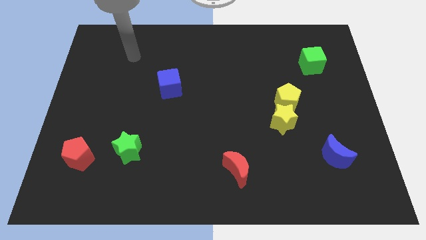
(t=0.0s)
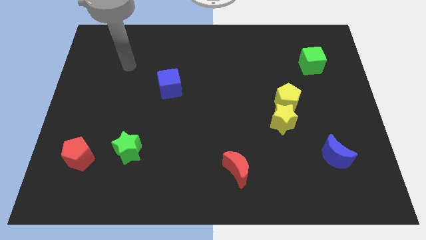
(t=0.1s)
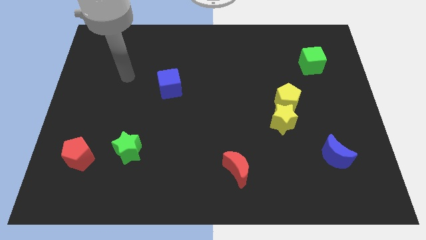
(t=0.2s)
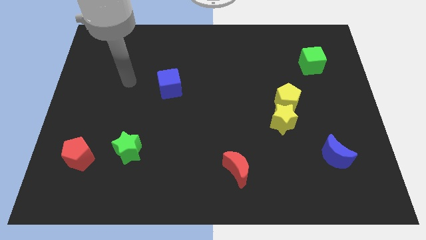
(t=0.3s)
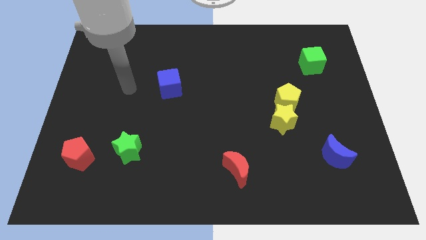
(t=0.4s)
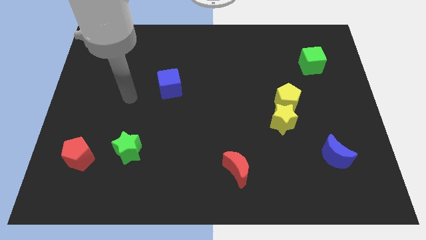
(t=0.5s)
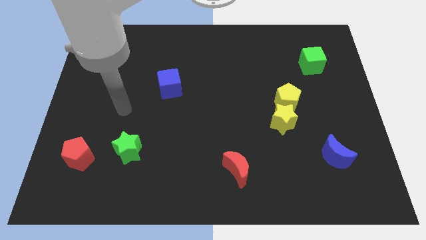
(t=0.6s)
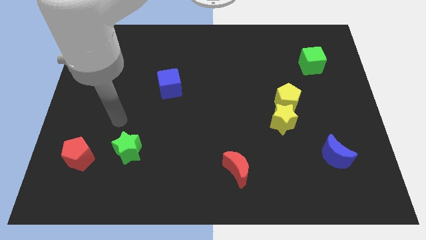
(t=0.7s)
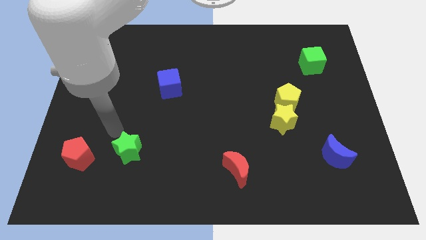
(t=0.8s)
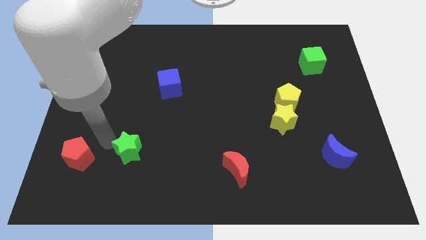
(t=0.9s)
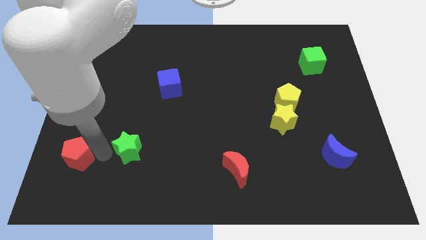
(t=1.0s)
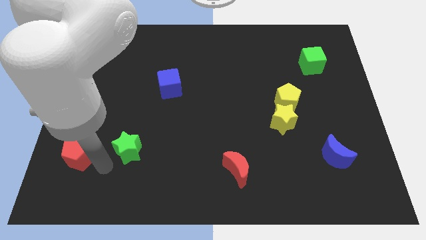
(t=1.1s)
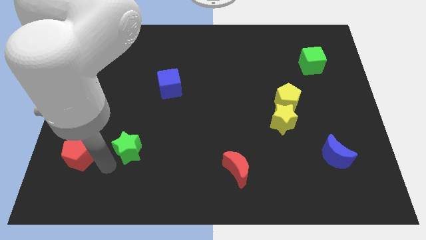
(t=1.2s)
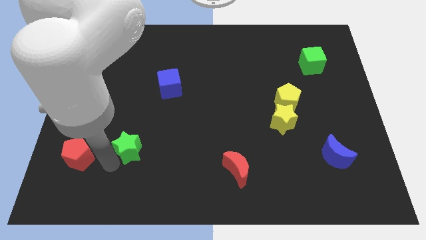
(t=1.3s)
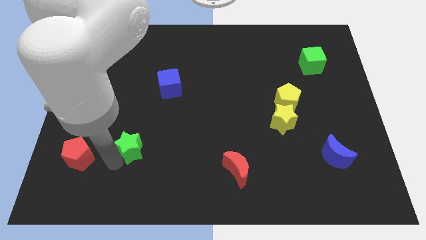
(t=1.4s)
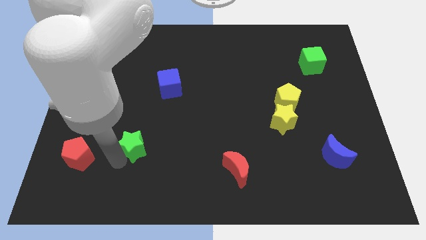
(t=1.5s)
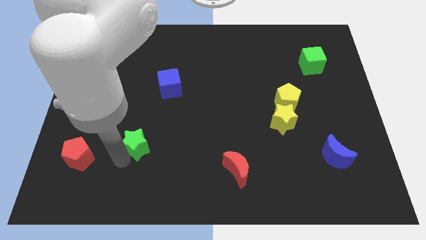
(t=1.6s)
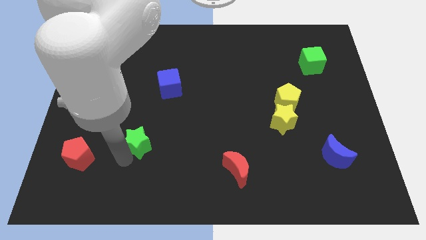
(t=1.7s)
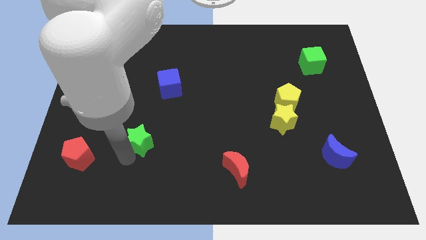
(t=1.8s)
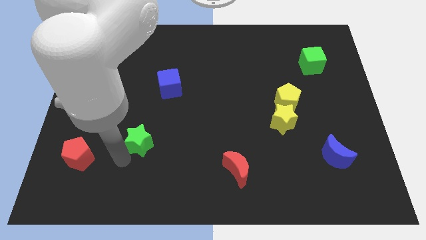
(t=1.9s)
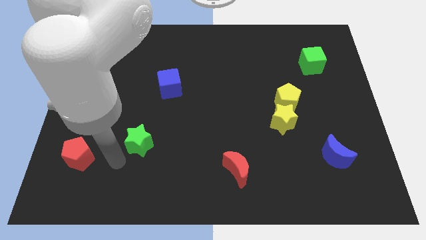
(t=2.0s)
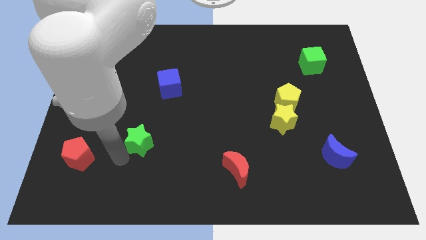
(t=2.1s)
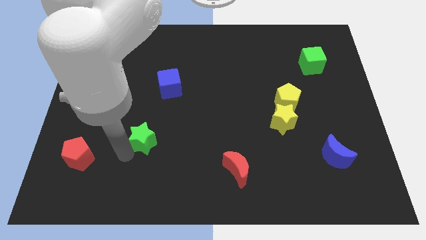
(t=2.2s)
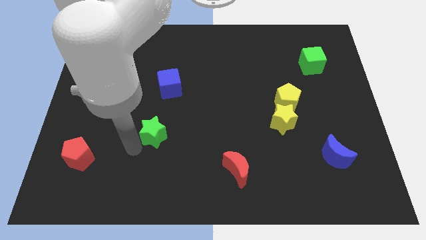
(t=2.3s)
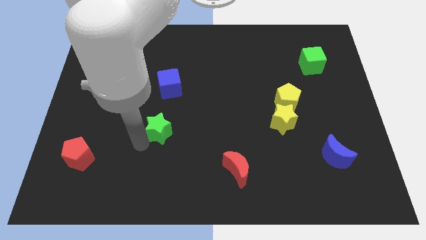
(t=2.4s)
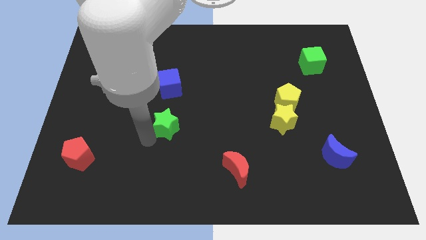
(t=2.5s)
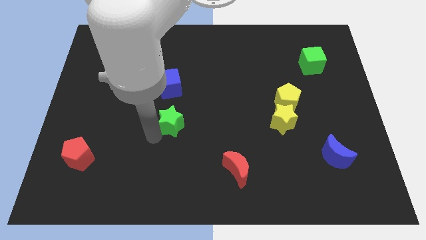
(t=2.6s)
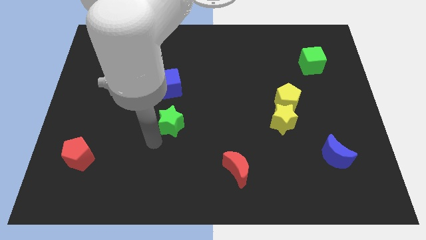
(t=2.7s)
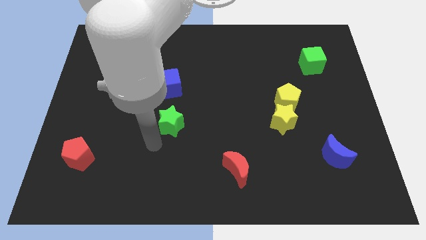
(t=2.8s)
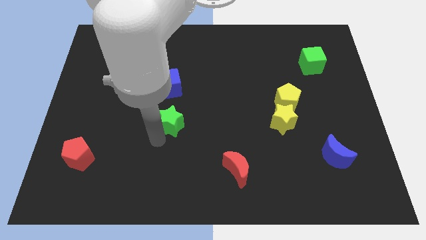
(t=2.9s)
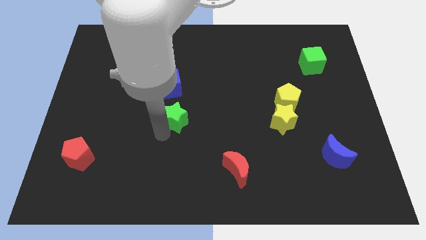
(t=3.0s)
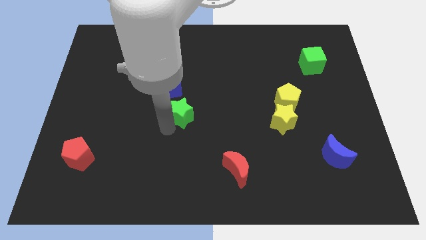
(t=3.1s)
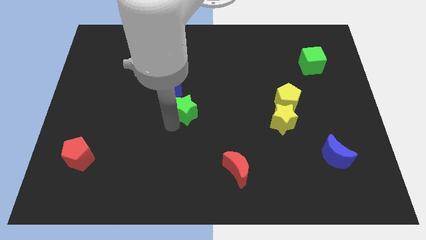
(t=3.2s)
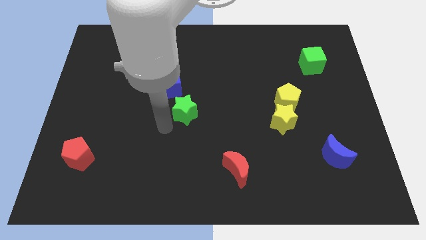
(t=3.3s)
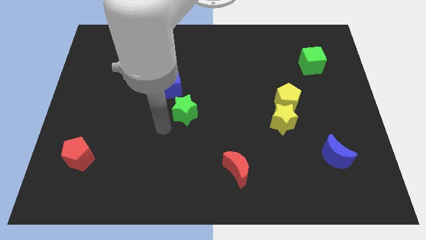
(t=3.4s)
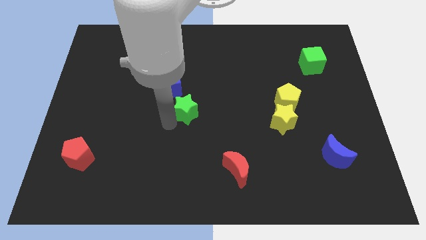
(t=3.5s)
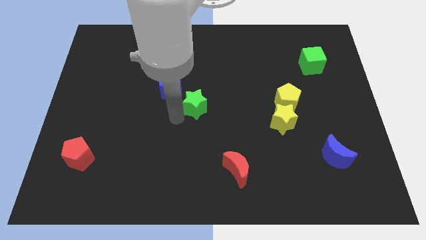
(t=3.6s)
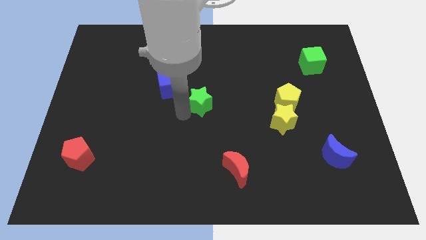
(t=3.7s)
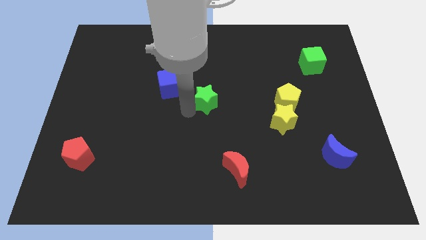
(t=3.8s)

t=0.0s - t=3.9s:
slide the green star diagonally upwards and to the right

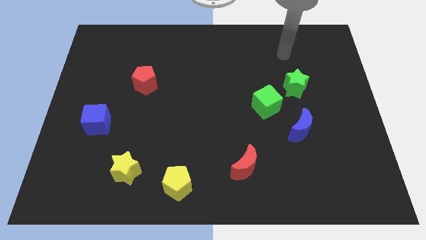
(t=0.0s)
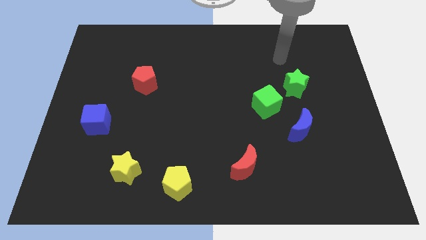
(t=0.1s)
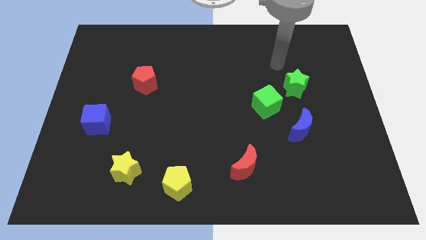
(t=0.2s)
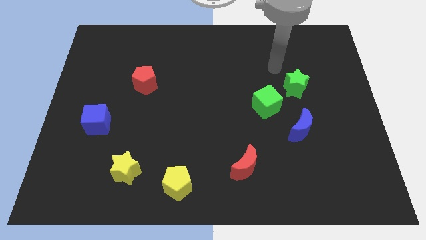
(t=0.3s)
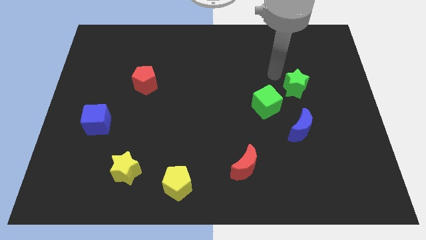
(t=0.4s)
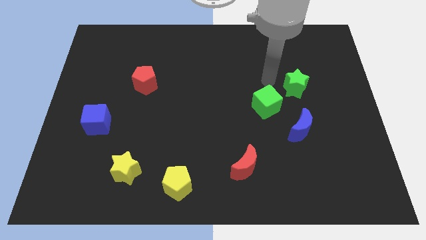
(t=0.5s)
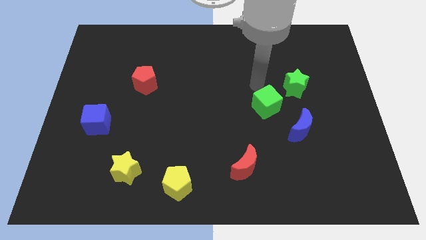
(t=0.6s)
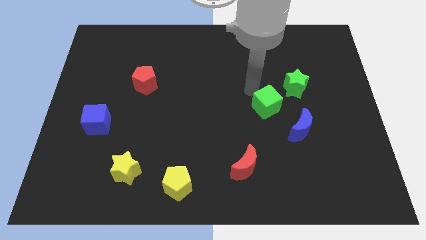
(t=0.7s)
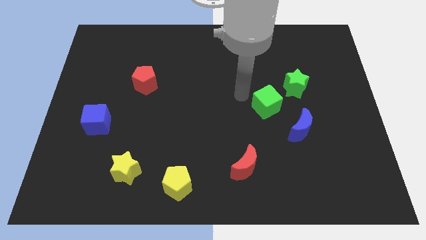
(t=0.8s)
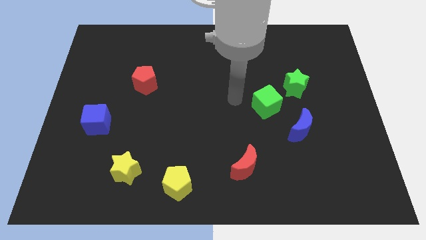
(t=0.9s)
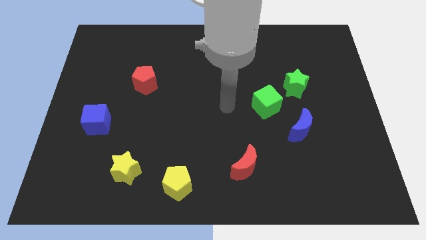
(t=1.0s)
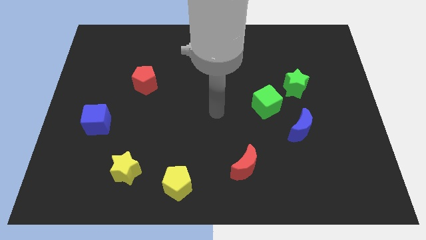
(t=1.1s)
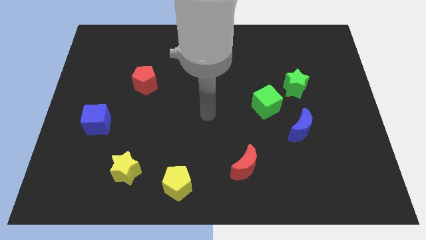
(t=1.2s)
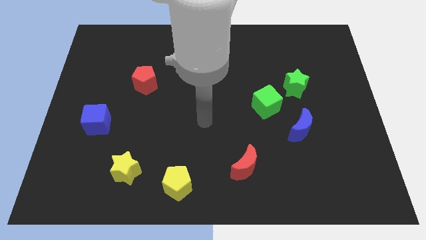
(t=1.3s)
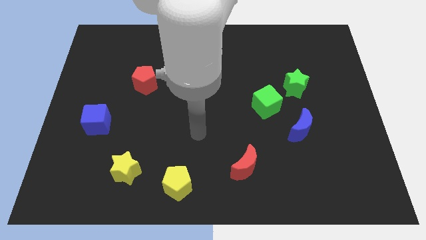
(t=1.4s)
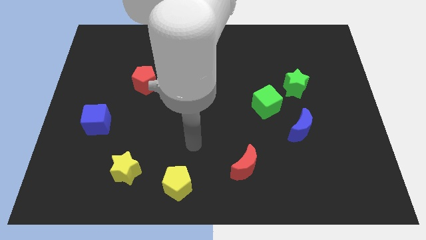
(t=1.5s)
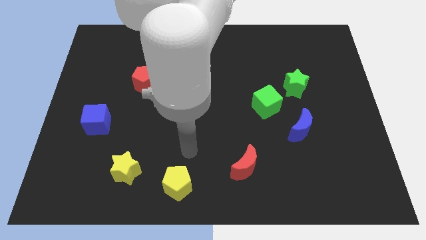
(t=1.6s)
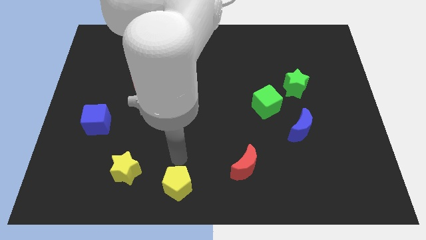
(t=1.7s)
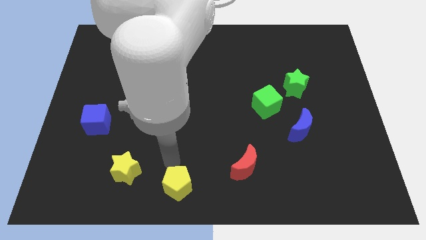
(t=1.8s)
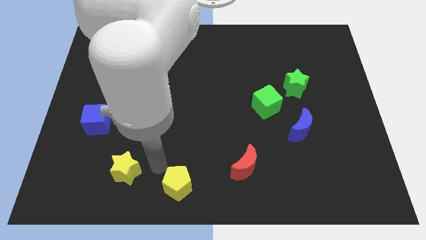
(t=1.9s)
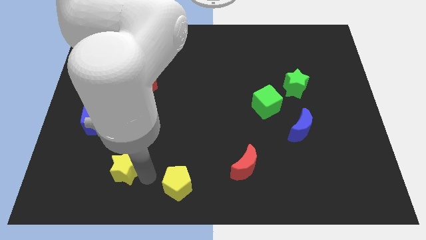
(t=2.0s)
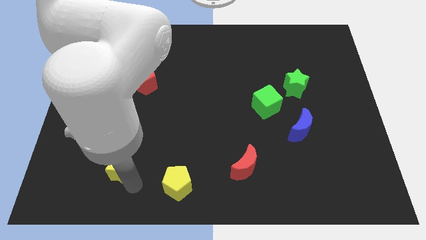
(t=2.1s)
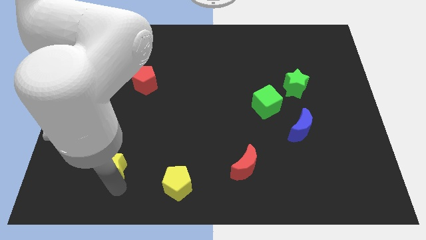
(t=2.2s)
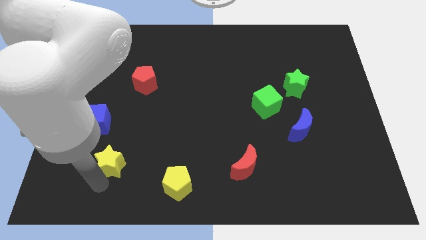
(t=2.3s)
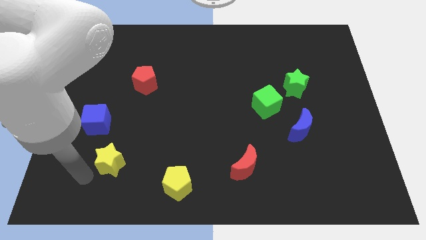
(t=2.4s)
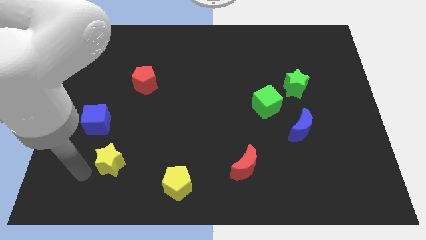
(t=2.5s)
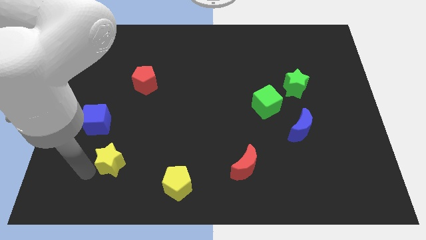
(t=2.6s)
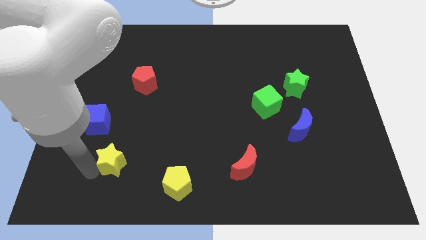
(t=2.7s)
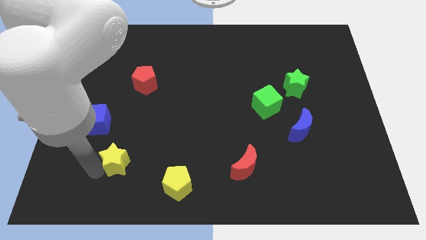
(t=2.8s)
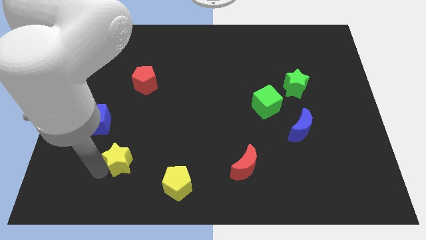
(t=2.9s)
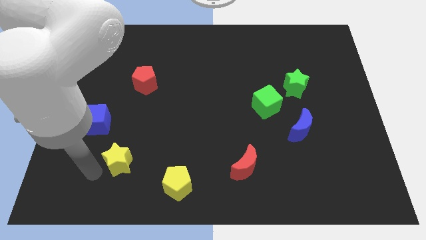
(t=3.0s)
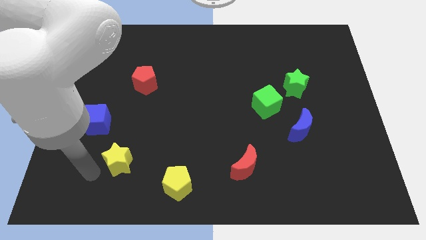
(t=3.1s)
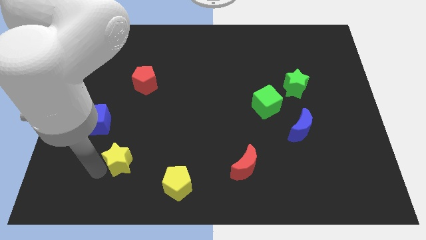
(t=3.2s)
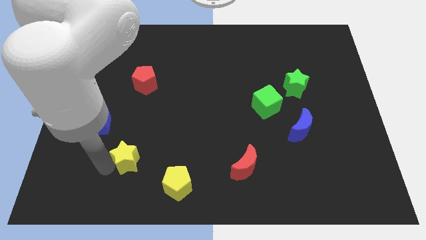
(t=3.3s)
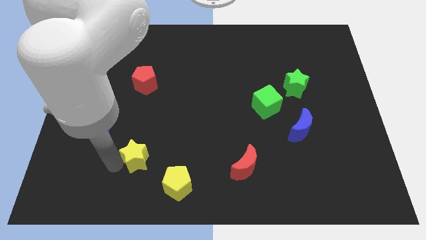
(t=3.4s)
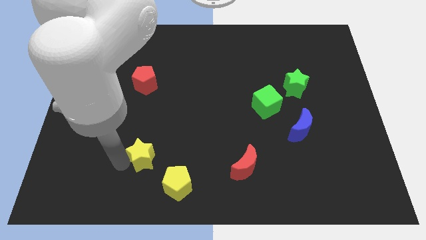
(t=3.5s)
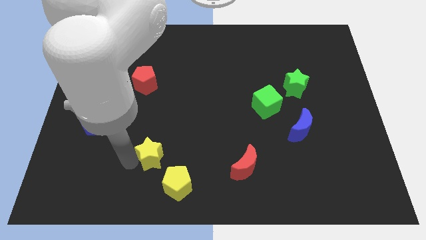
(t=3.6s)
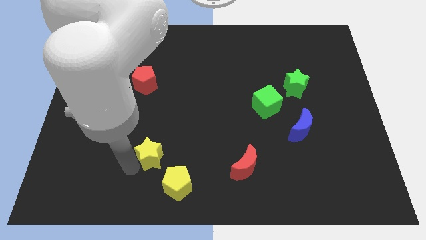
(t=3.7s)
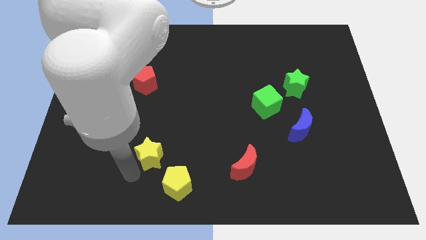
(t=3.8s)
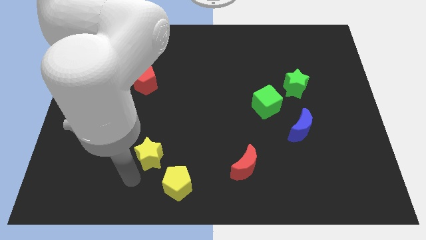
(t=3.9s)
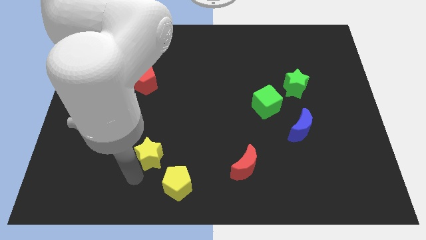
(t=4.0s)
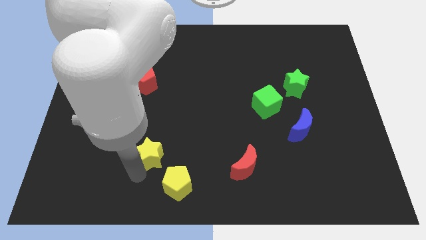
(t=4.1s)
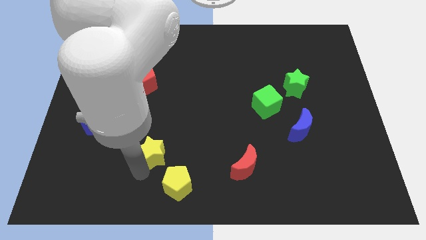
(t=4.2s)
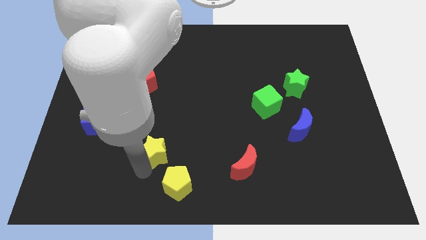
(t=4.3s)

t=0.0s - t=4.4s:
slightly push the yellow star up and to the right
